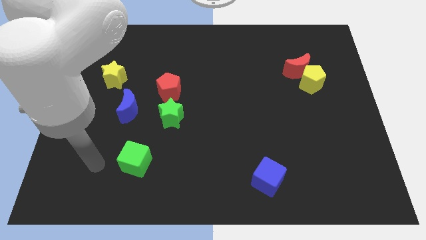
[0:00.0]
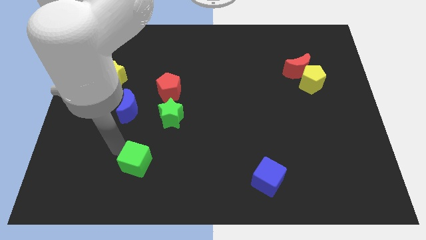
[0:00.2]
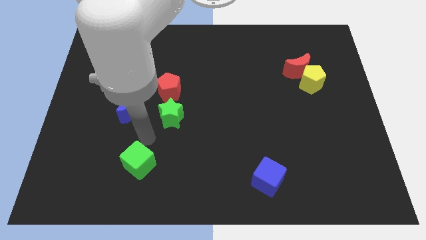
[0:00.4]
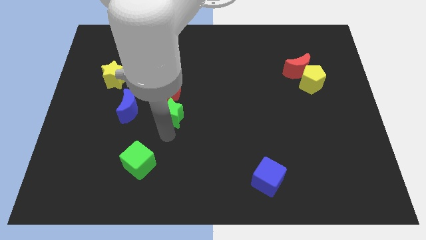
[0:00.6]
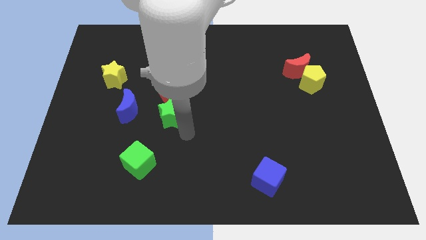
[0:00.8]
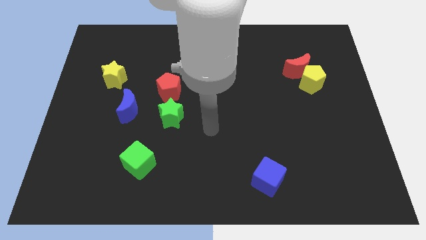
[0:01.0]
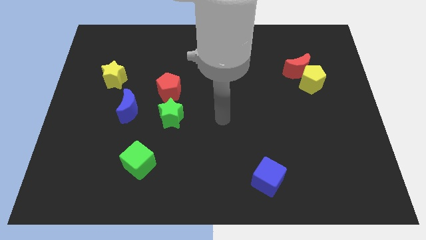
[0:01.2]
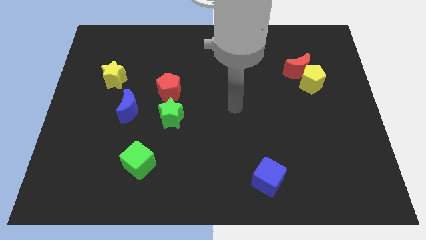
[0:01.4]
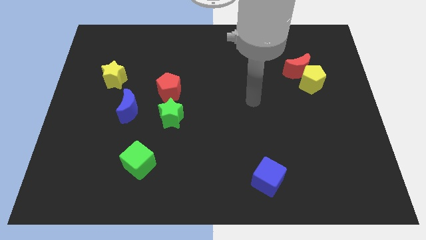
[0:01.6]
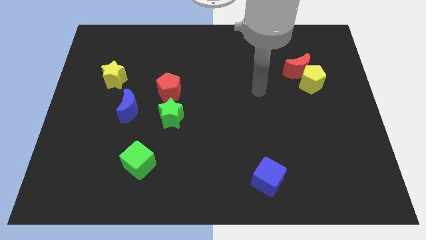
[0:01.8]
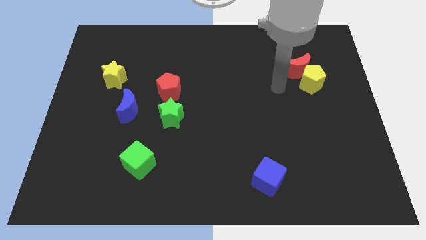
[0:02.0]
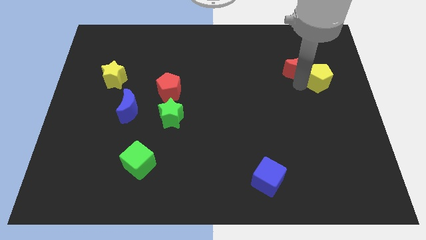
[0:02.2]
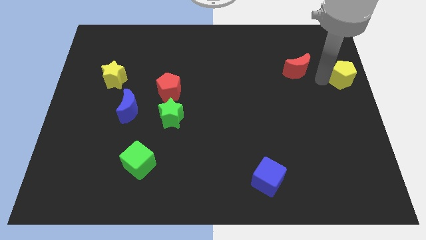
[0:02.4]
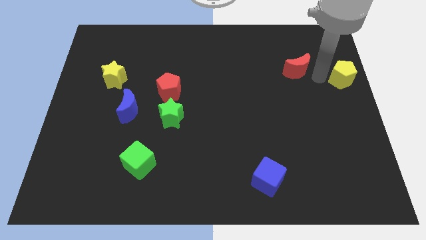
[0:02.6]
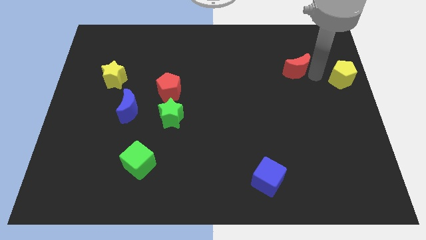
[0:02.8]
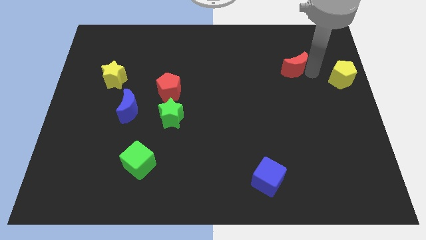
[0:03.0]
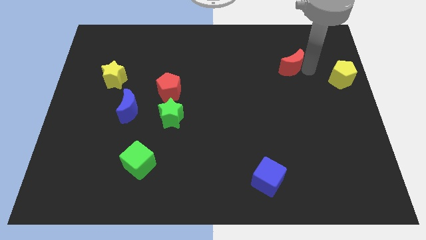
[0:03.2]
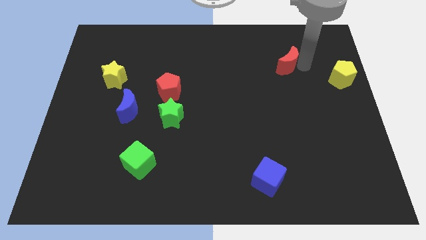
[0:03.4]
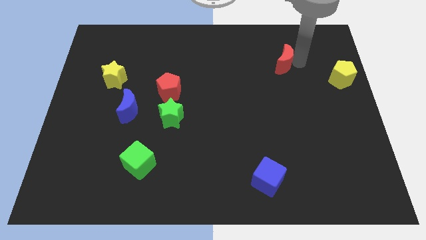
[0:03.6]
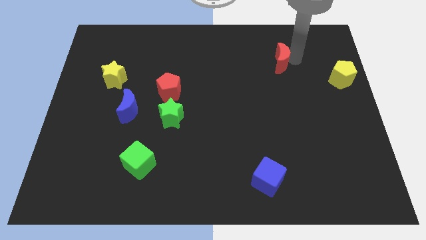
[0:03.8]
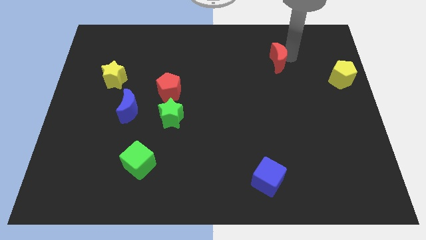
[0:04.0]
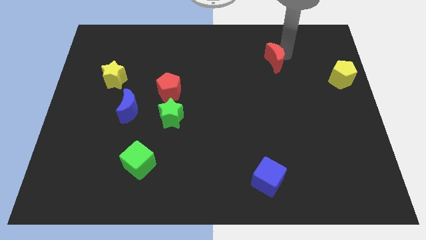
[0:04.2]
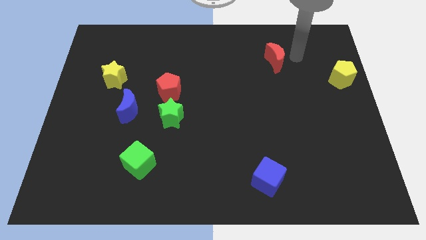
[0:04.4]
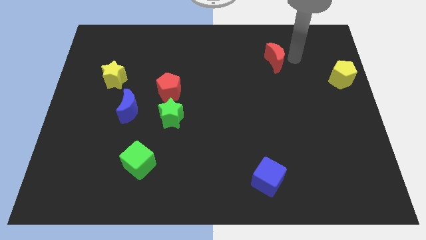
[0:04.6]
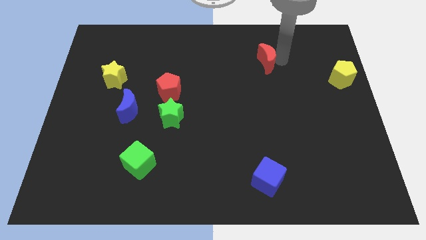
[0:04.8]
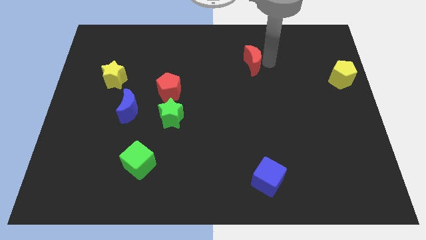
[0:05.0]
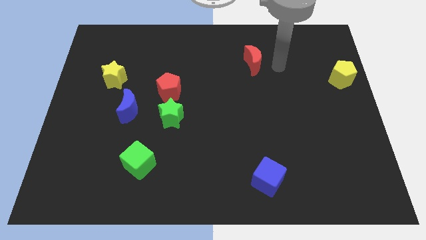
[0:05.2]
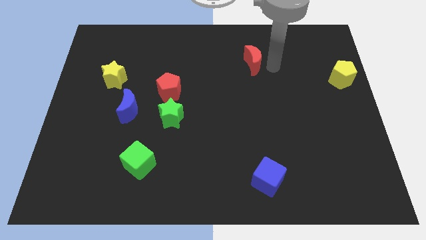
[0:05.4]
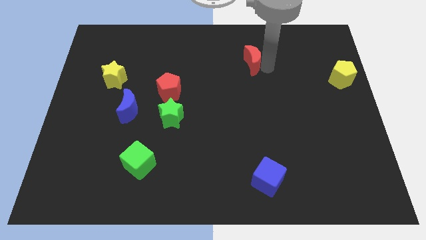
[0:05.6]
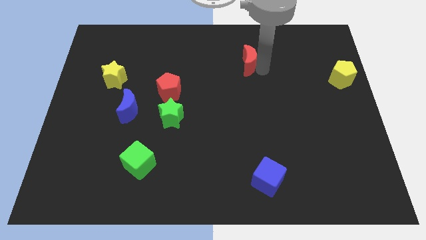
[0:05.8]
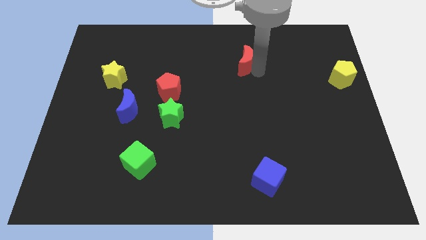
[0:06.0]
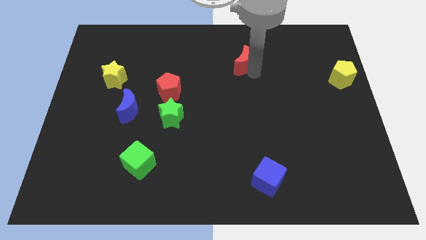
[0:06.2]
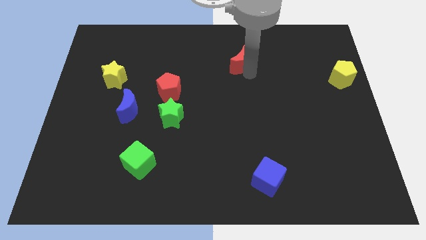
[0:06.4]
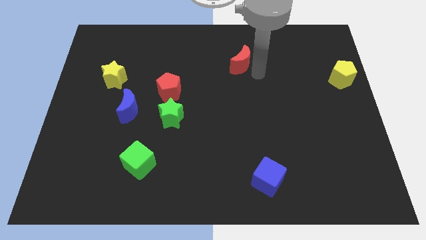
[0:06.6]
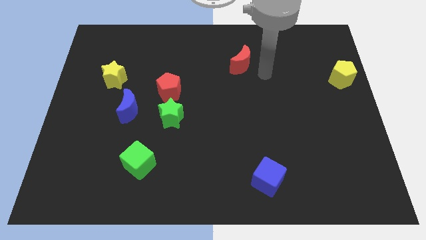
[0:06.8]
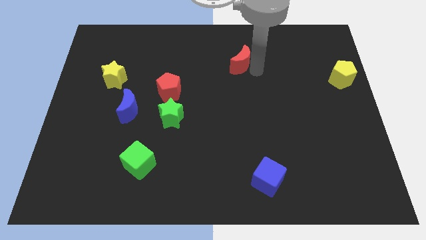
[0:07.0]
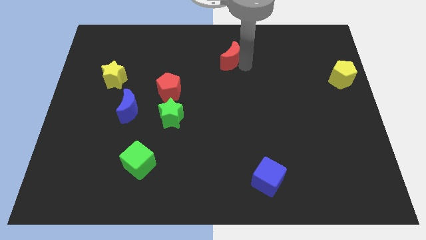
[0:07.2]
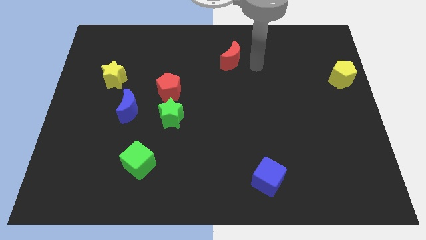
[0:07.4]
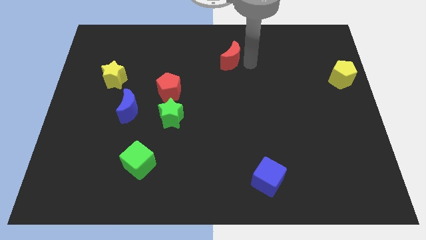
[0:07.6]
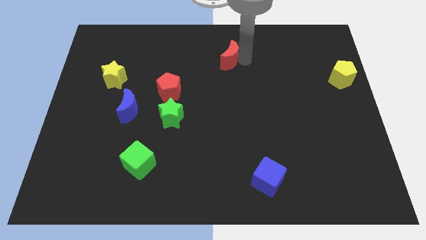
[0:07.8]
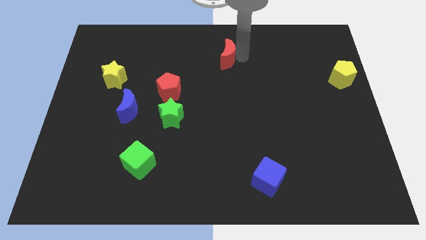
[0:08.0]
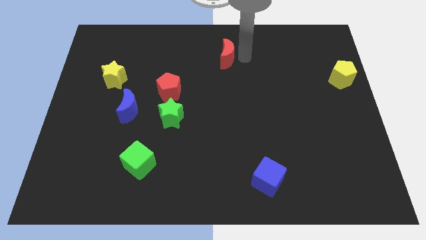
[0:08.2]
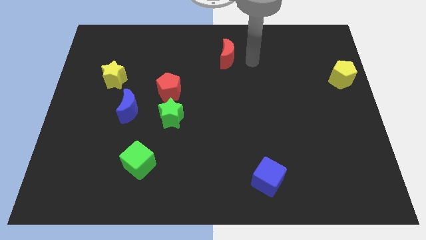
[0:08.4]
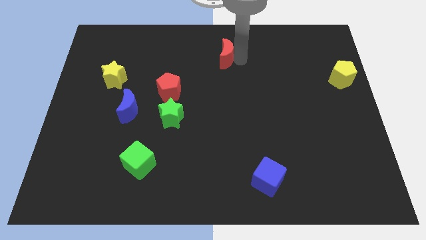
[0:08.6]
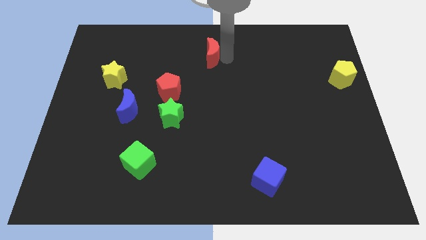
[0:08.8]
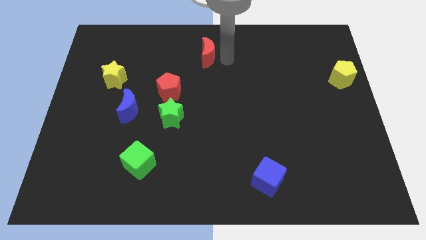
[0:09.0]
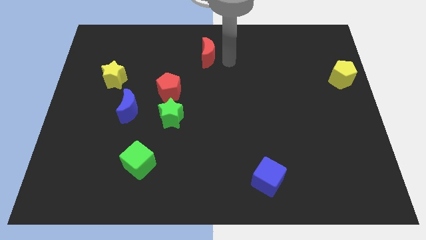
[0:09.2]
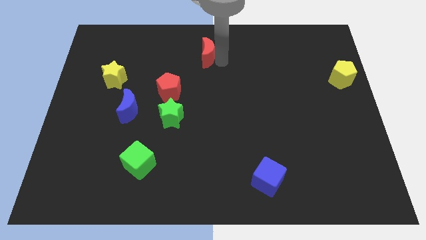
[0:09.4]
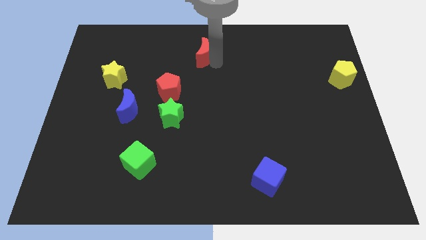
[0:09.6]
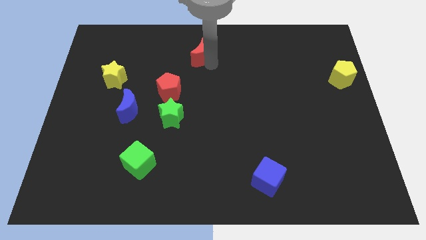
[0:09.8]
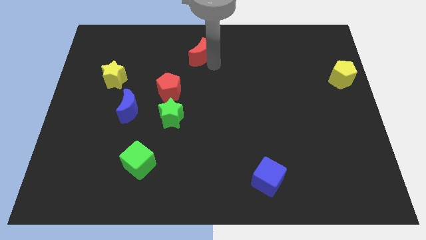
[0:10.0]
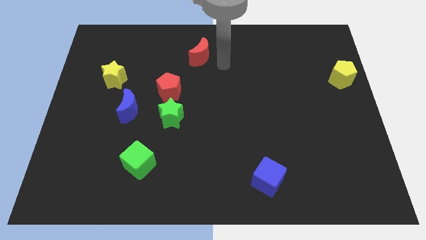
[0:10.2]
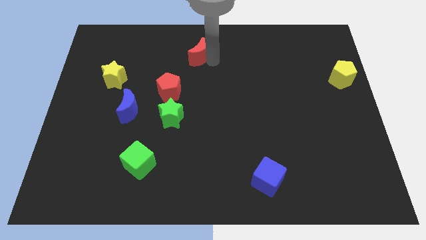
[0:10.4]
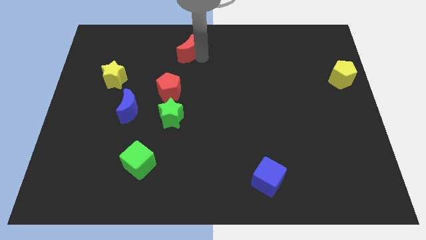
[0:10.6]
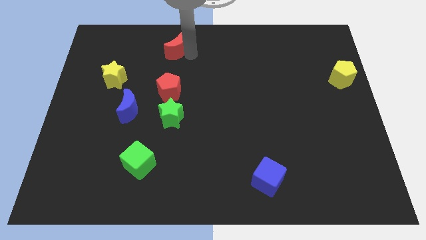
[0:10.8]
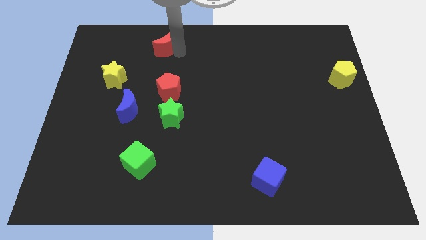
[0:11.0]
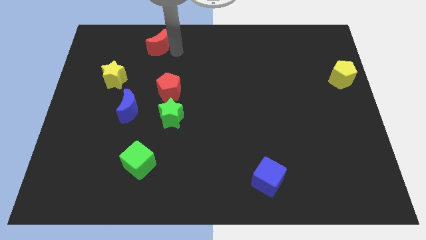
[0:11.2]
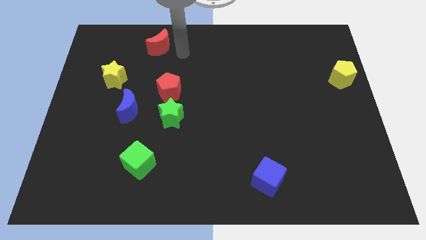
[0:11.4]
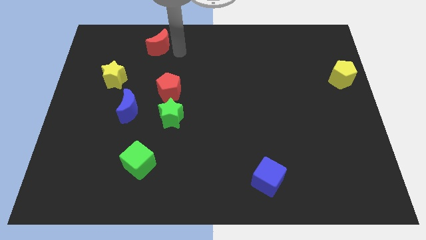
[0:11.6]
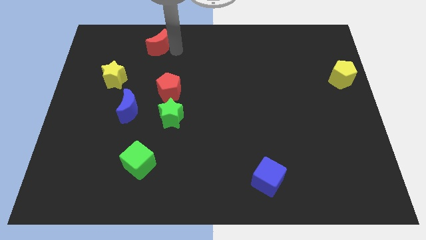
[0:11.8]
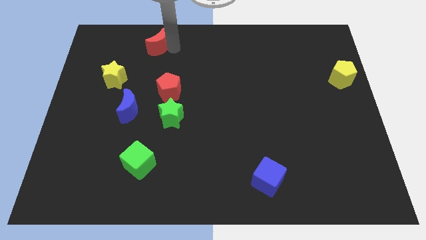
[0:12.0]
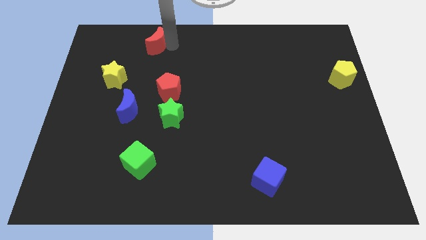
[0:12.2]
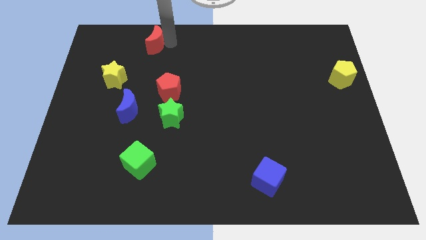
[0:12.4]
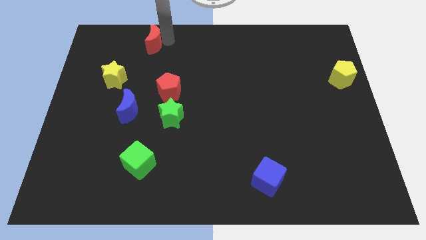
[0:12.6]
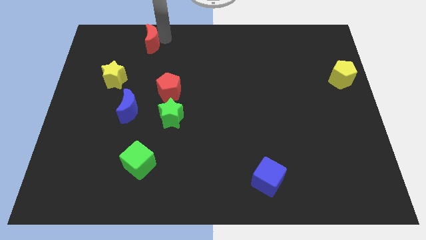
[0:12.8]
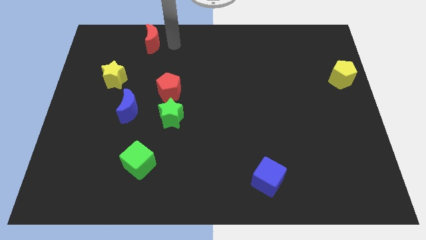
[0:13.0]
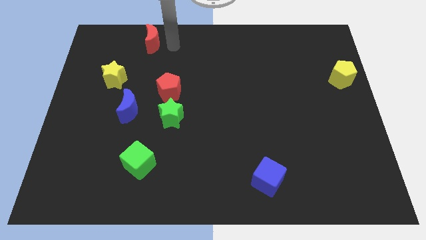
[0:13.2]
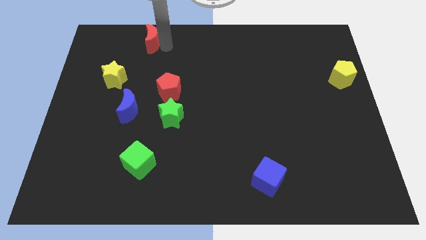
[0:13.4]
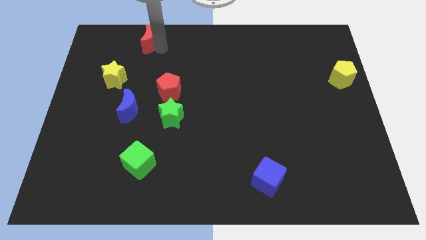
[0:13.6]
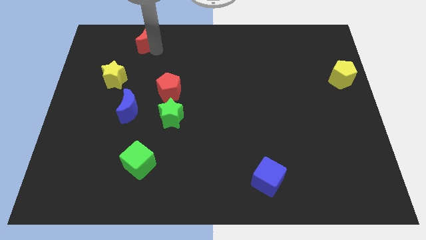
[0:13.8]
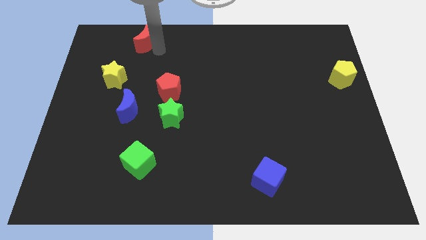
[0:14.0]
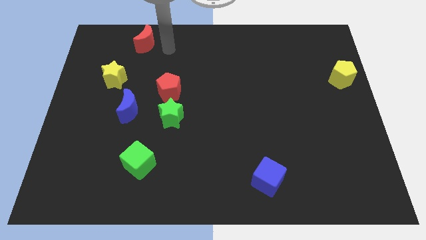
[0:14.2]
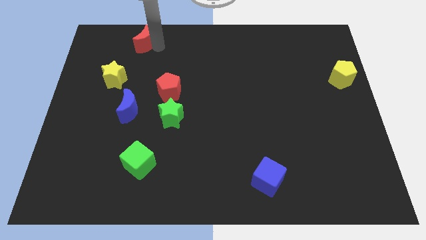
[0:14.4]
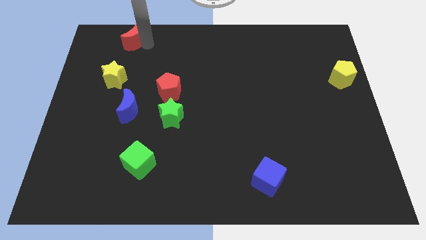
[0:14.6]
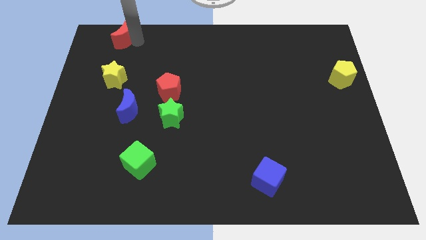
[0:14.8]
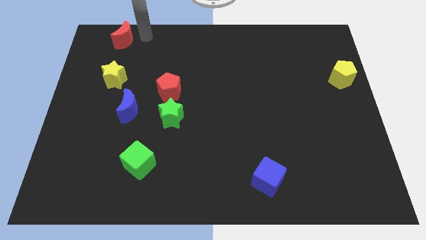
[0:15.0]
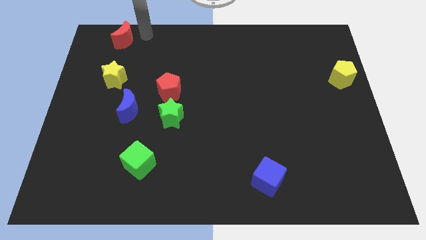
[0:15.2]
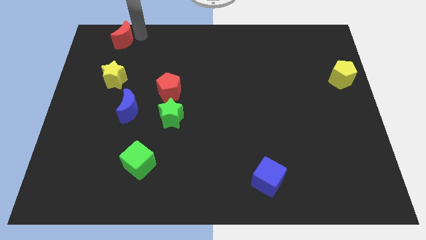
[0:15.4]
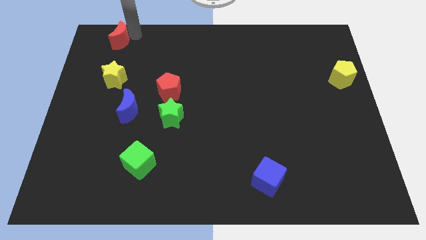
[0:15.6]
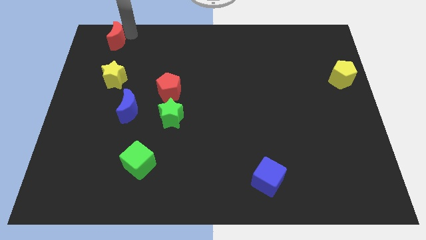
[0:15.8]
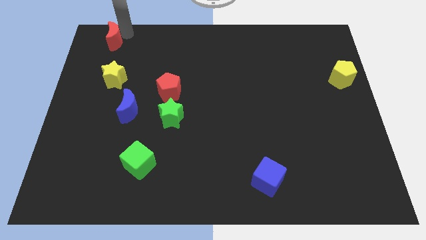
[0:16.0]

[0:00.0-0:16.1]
slide the red moon to the upper left corner
